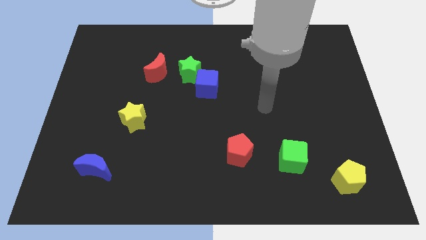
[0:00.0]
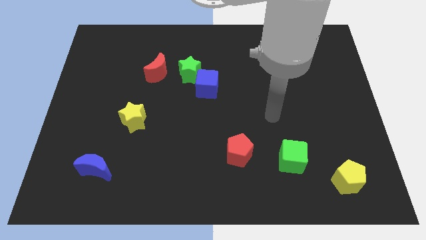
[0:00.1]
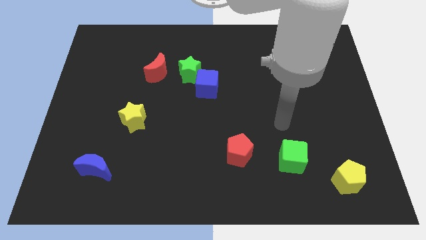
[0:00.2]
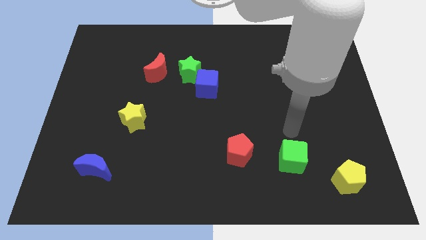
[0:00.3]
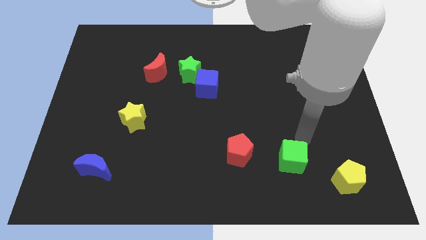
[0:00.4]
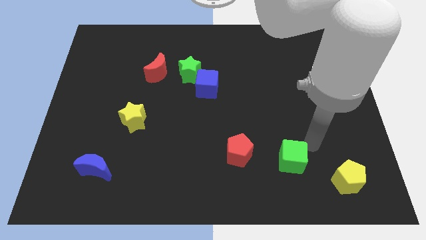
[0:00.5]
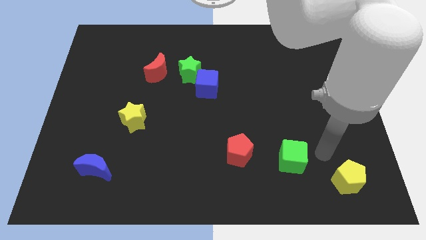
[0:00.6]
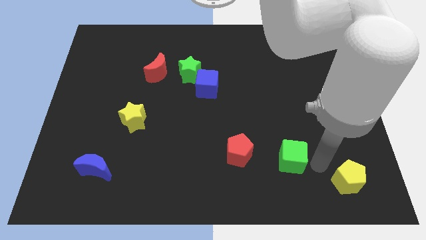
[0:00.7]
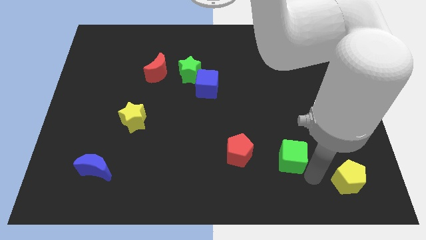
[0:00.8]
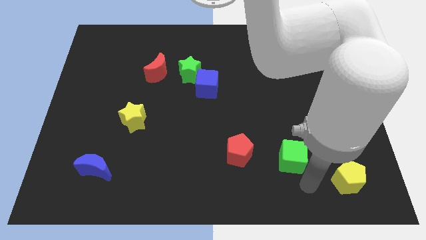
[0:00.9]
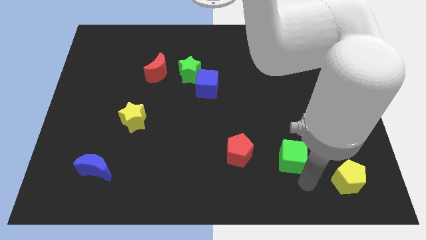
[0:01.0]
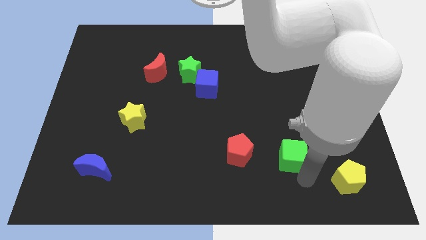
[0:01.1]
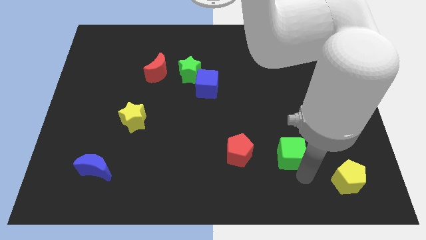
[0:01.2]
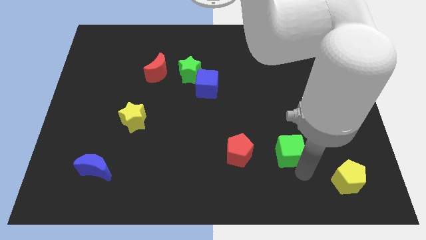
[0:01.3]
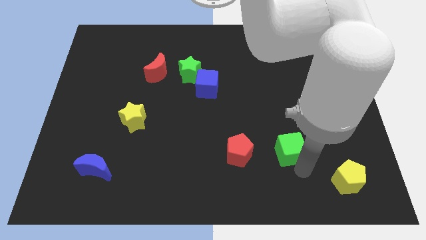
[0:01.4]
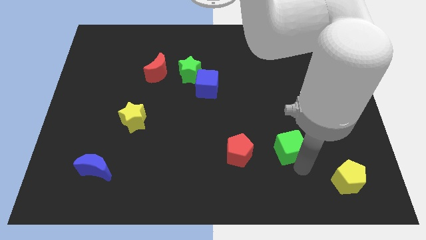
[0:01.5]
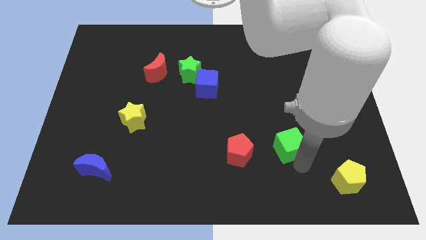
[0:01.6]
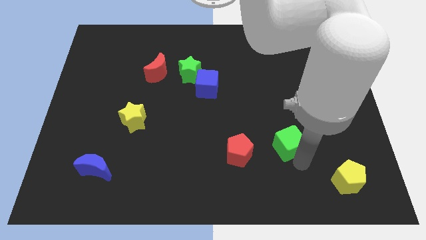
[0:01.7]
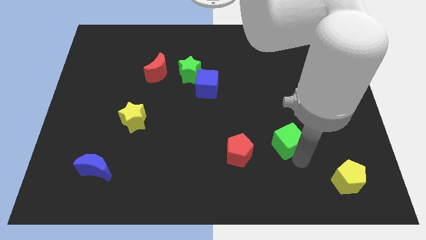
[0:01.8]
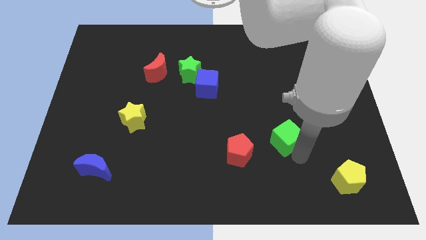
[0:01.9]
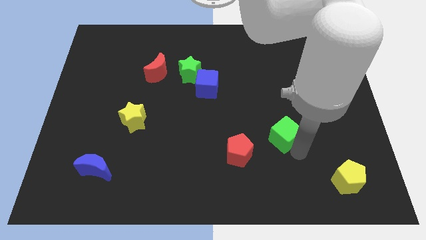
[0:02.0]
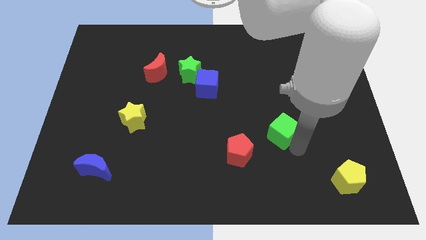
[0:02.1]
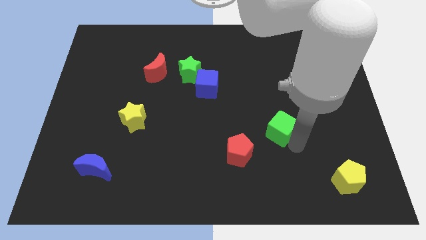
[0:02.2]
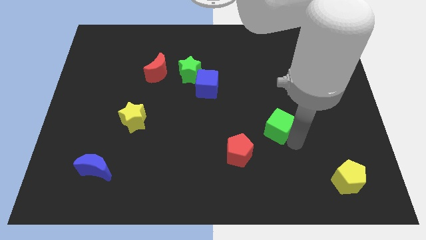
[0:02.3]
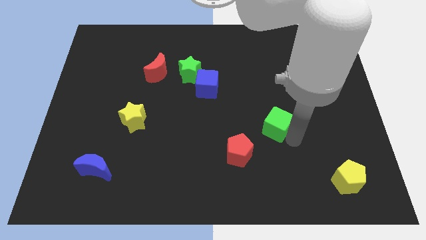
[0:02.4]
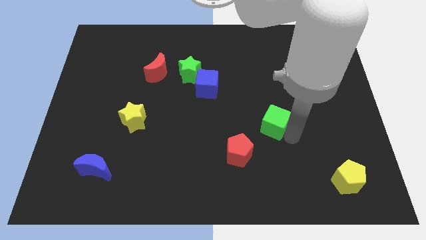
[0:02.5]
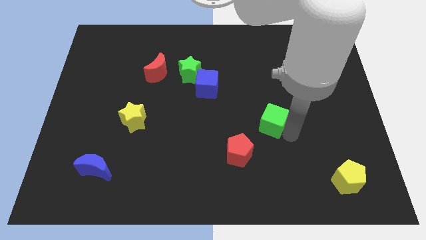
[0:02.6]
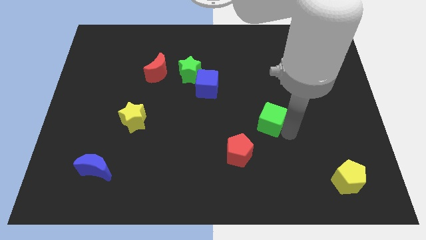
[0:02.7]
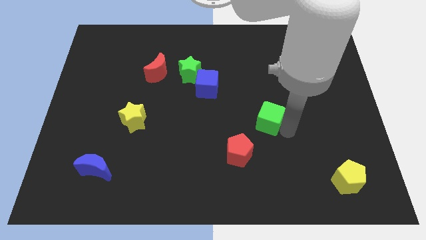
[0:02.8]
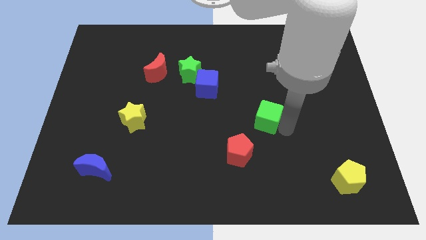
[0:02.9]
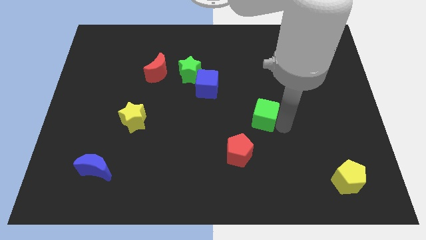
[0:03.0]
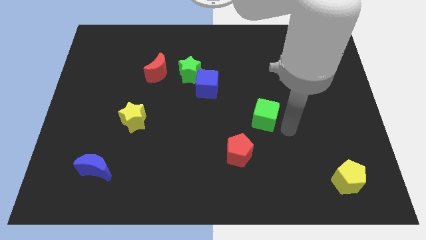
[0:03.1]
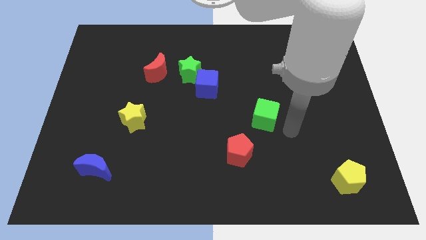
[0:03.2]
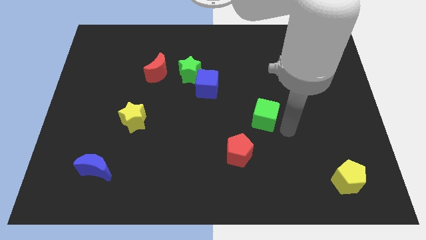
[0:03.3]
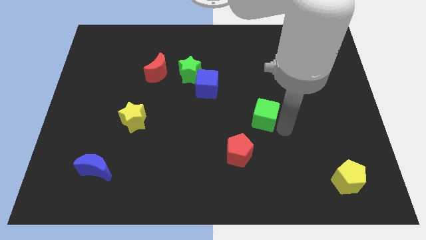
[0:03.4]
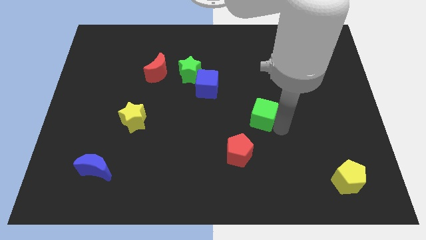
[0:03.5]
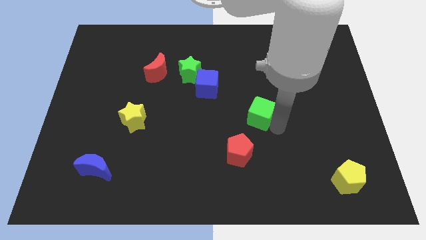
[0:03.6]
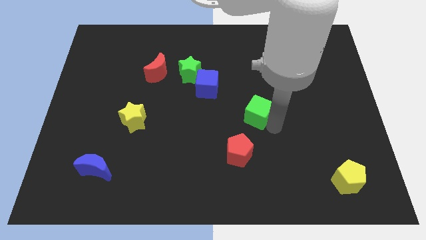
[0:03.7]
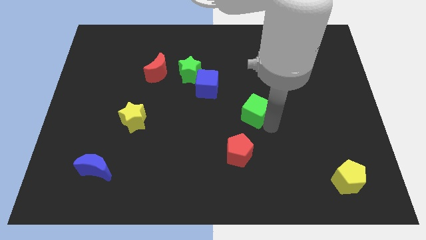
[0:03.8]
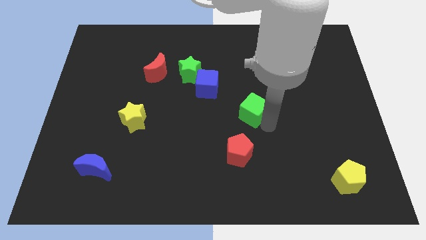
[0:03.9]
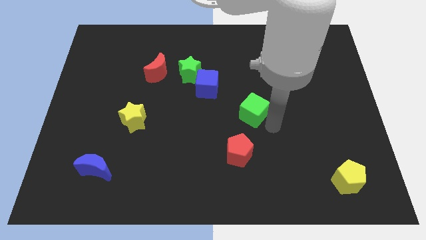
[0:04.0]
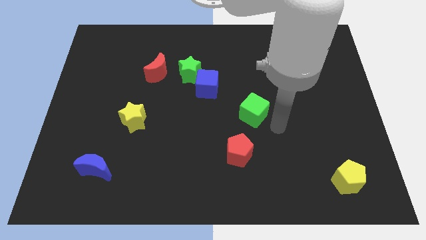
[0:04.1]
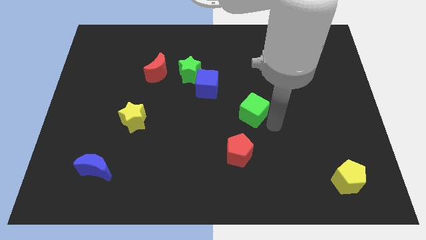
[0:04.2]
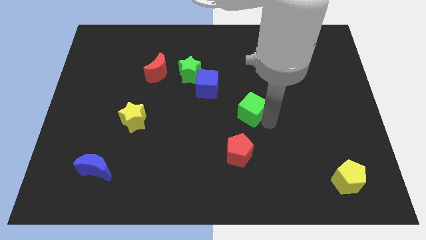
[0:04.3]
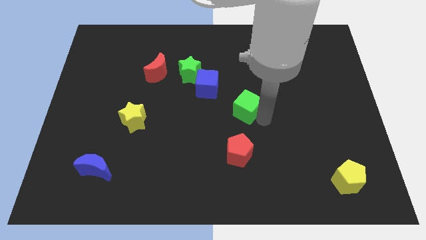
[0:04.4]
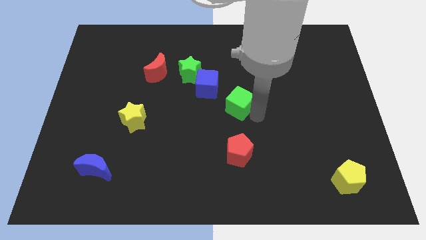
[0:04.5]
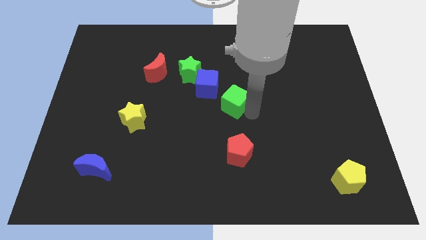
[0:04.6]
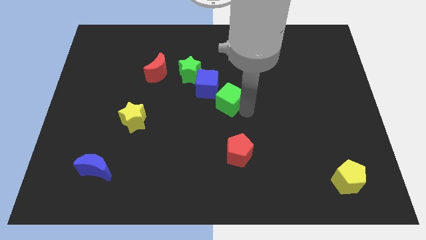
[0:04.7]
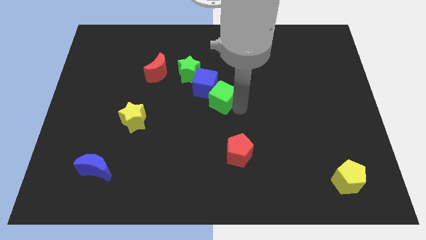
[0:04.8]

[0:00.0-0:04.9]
put the green cube towards the blue cube

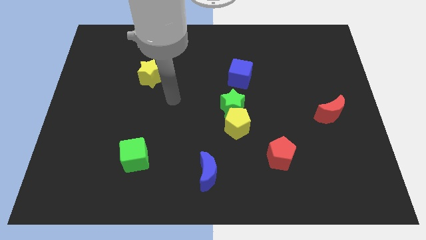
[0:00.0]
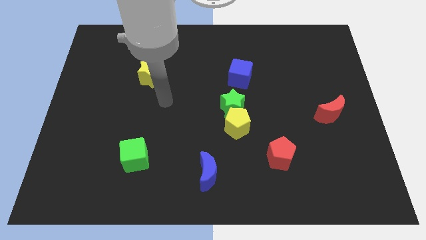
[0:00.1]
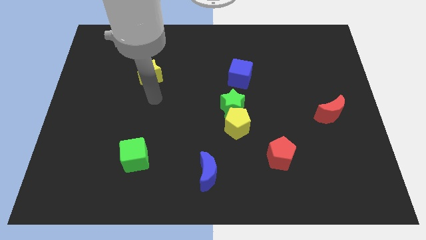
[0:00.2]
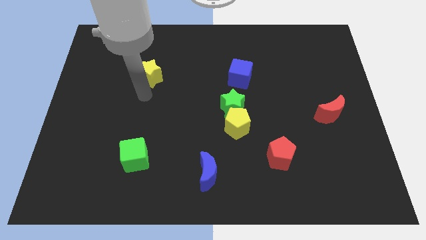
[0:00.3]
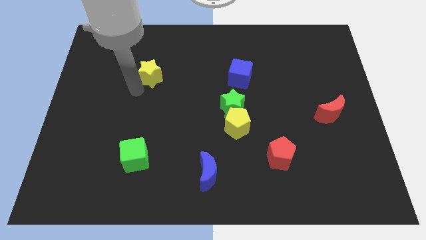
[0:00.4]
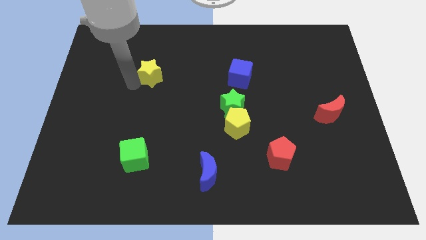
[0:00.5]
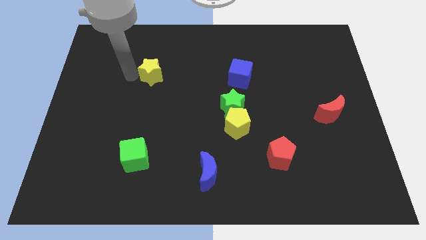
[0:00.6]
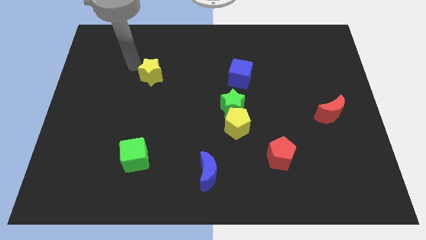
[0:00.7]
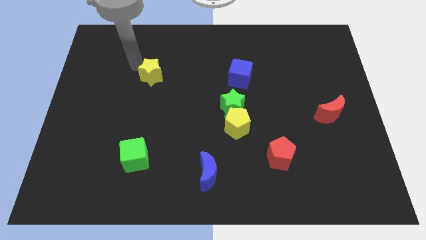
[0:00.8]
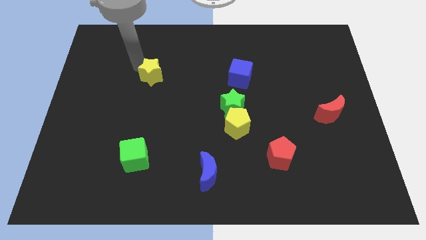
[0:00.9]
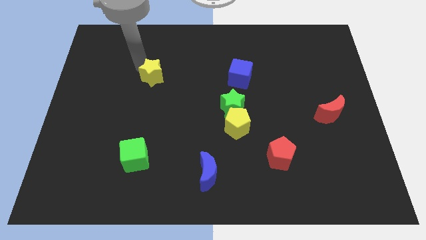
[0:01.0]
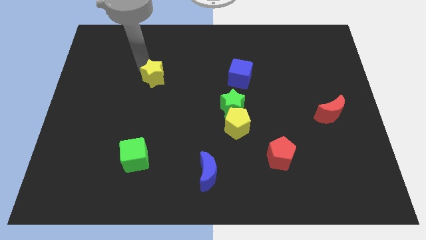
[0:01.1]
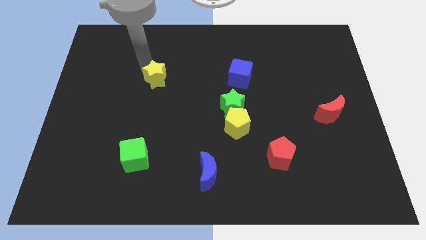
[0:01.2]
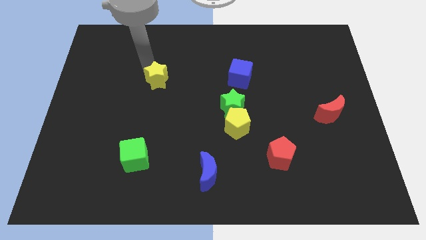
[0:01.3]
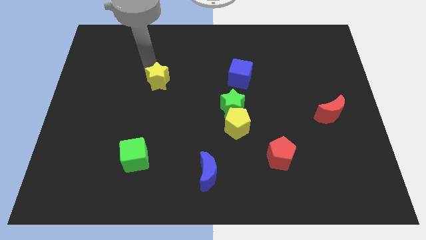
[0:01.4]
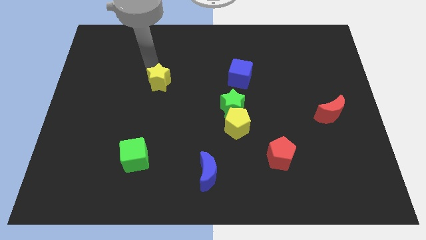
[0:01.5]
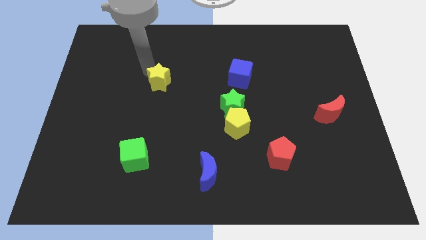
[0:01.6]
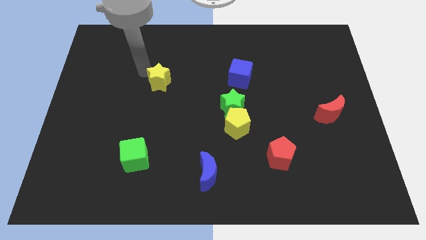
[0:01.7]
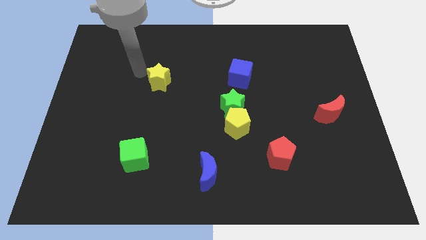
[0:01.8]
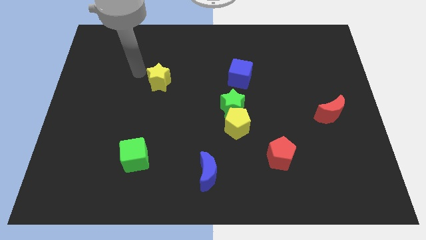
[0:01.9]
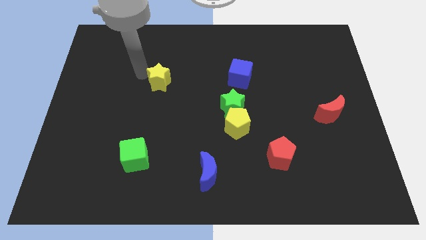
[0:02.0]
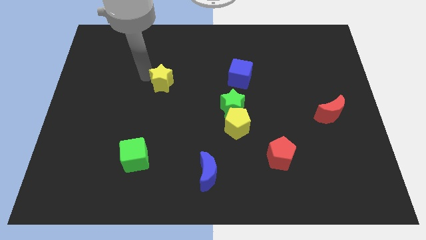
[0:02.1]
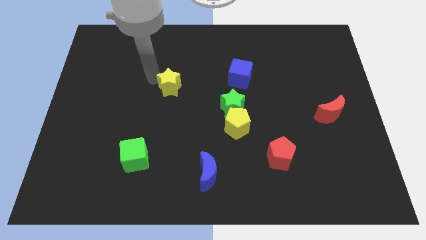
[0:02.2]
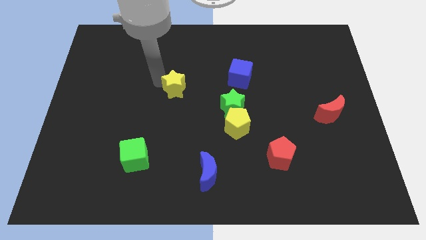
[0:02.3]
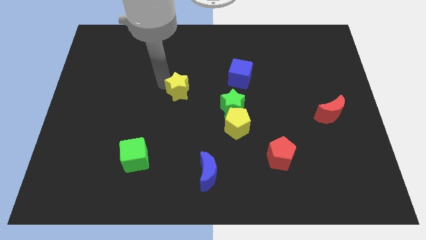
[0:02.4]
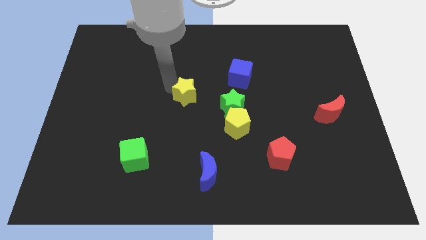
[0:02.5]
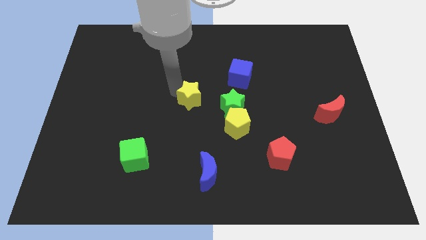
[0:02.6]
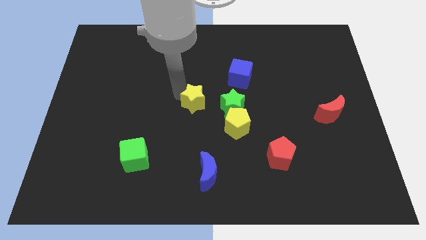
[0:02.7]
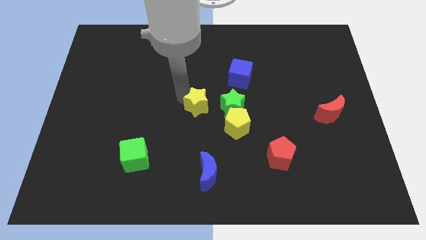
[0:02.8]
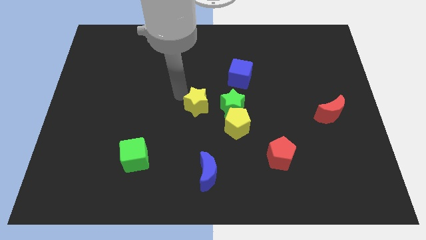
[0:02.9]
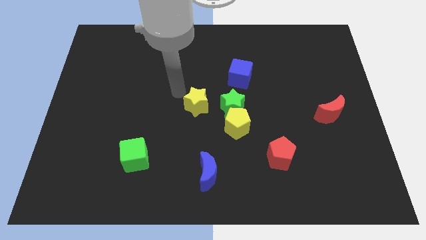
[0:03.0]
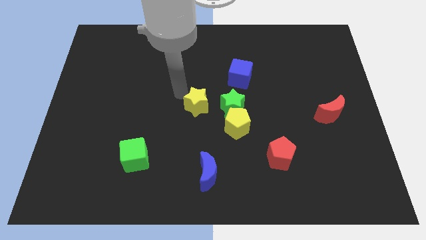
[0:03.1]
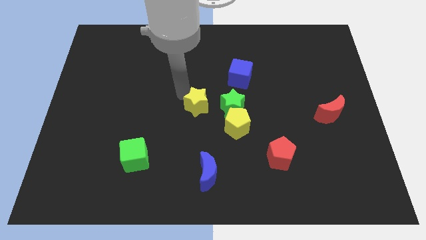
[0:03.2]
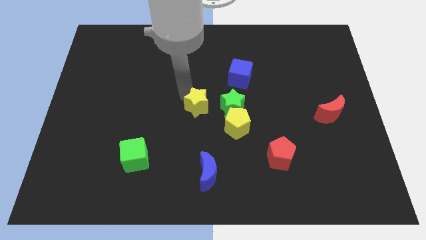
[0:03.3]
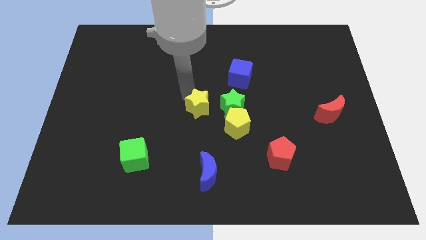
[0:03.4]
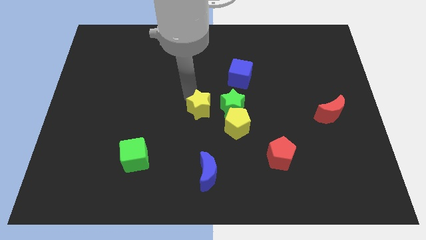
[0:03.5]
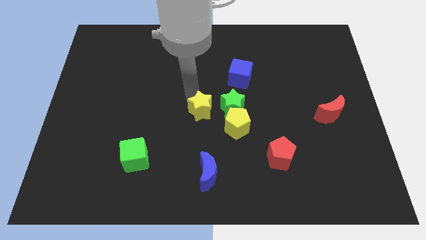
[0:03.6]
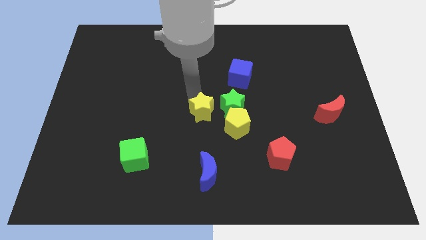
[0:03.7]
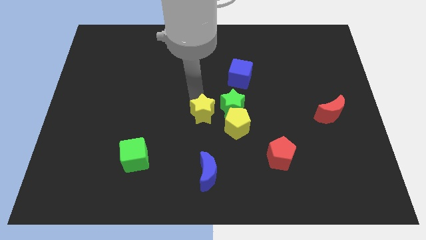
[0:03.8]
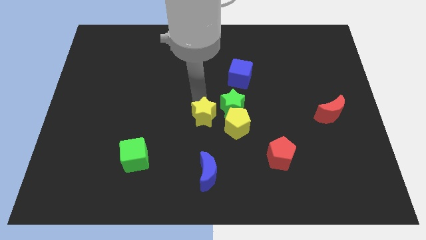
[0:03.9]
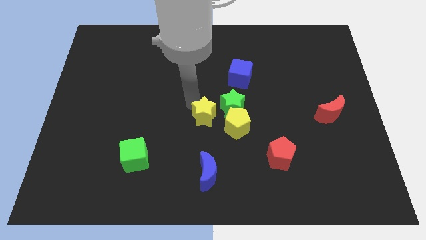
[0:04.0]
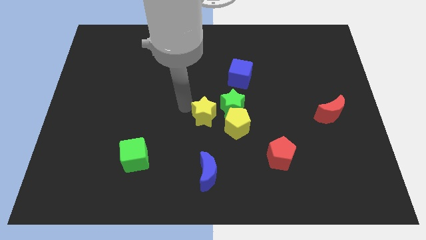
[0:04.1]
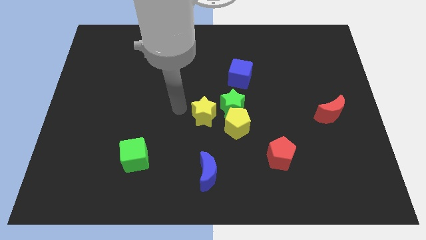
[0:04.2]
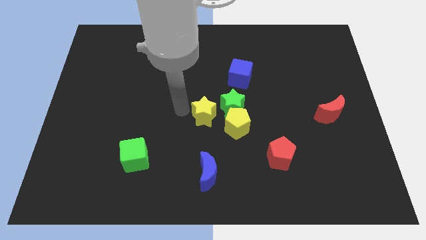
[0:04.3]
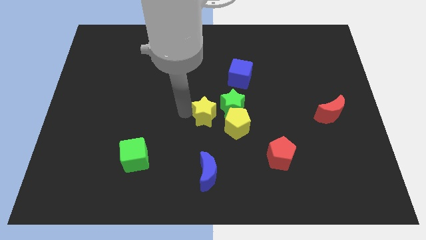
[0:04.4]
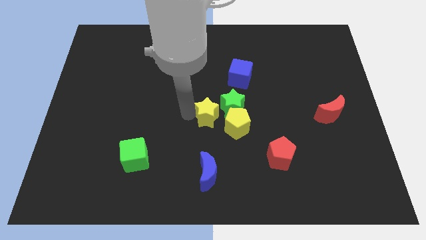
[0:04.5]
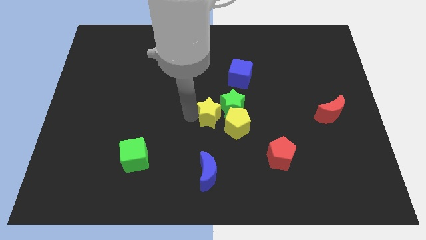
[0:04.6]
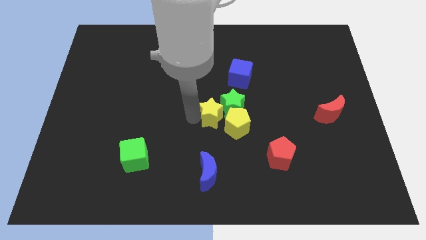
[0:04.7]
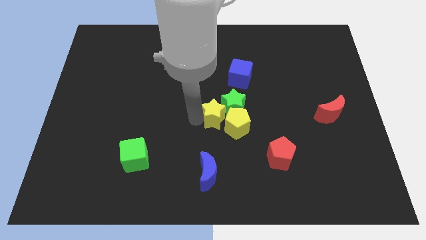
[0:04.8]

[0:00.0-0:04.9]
slide the yellow star towards the yellow pentagon
